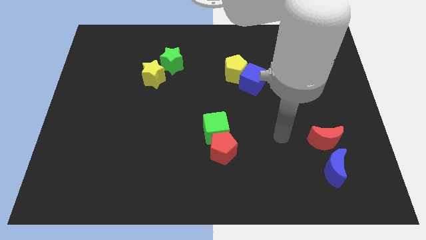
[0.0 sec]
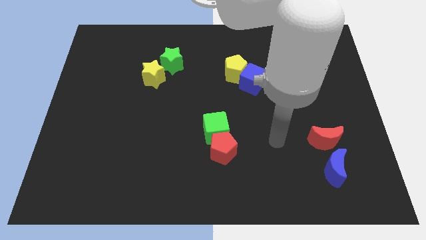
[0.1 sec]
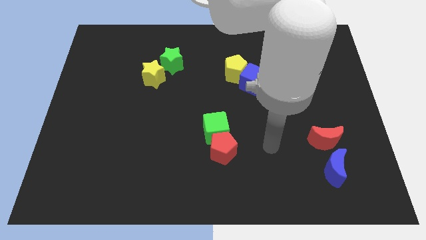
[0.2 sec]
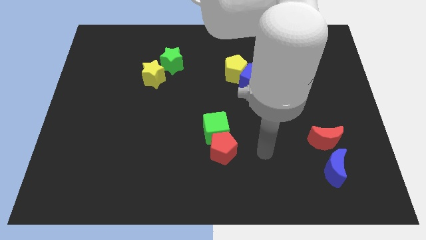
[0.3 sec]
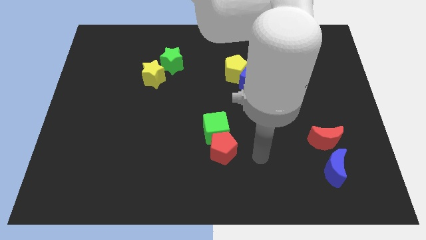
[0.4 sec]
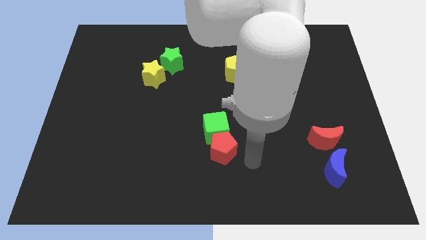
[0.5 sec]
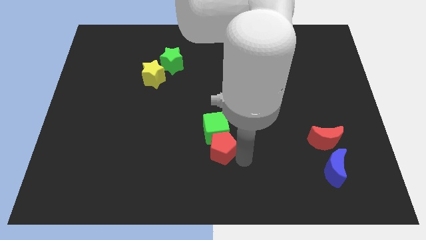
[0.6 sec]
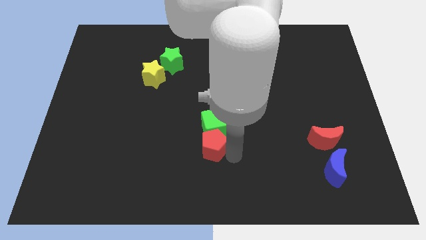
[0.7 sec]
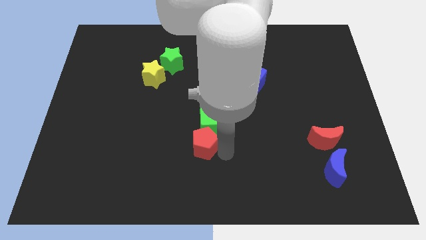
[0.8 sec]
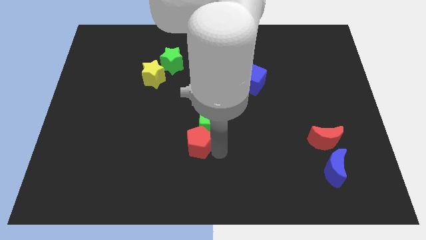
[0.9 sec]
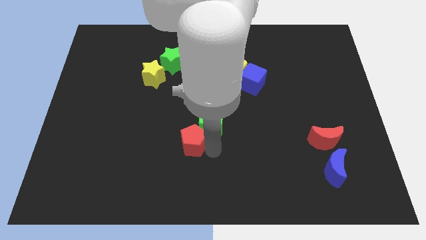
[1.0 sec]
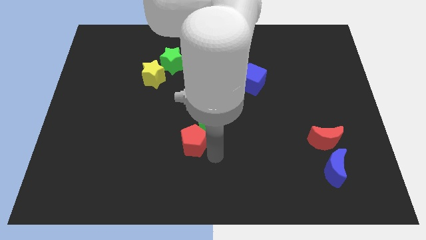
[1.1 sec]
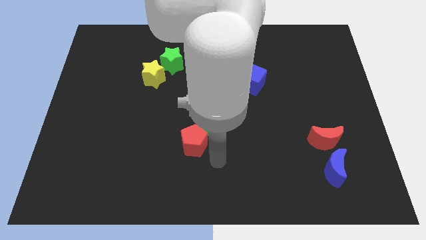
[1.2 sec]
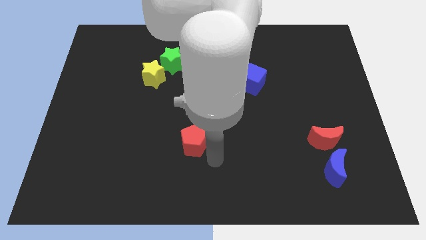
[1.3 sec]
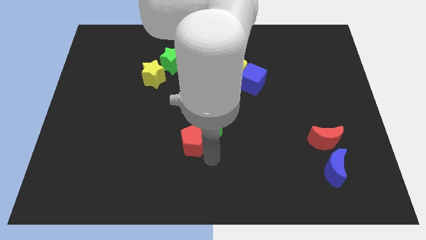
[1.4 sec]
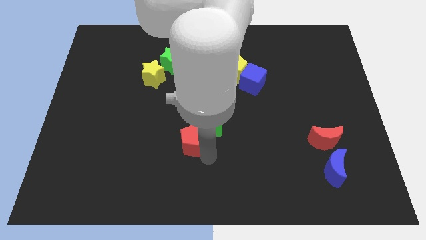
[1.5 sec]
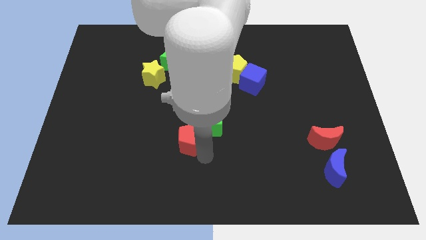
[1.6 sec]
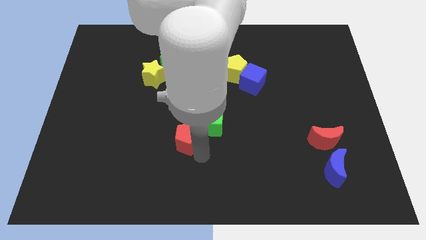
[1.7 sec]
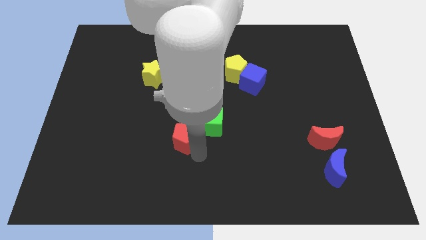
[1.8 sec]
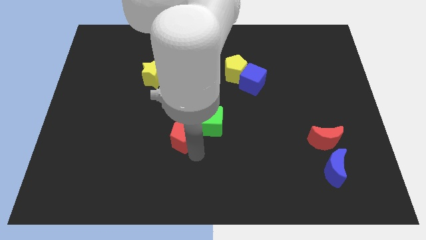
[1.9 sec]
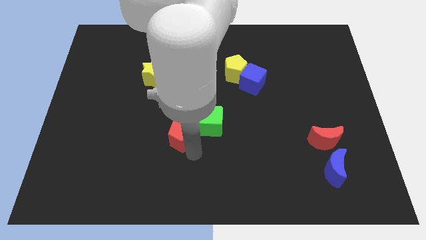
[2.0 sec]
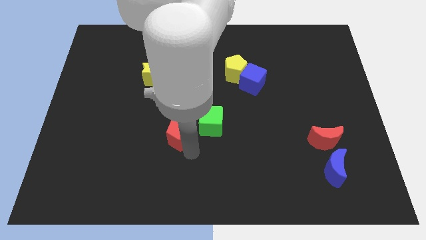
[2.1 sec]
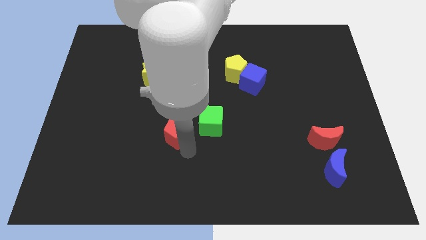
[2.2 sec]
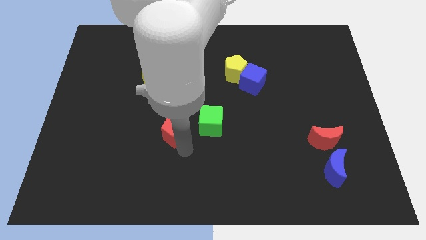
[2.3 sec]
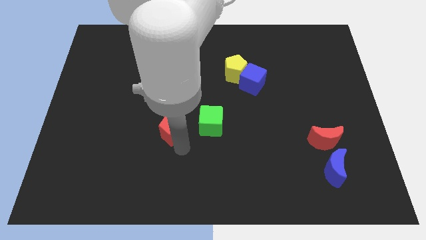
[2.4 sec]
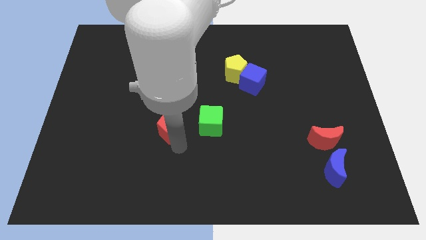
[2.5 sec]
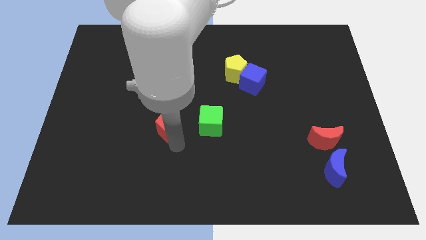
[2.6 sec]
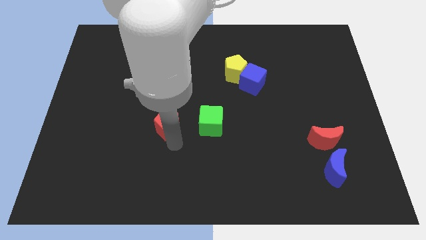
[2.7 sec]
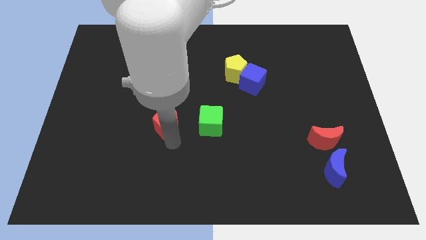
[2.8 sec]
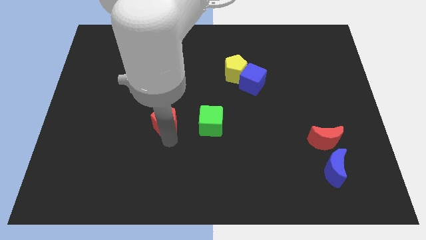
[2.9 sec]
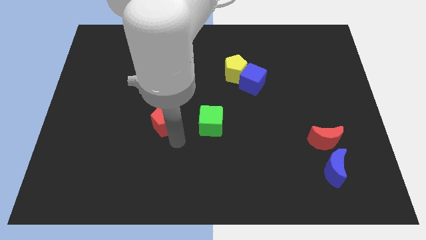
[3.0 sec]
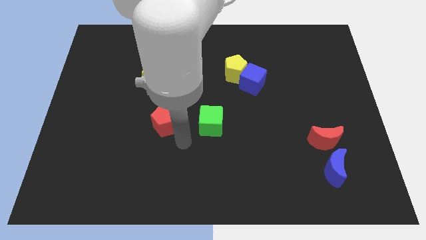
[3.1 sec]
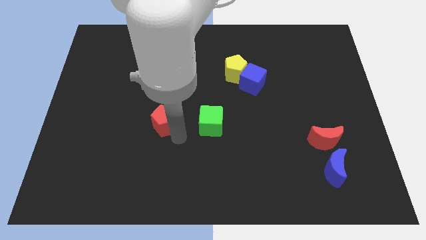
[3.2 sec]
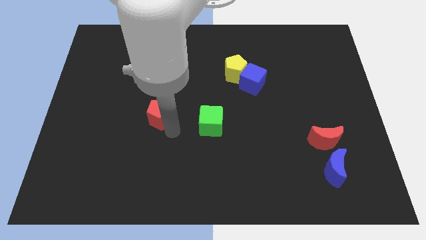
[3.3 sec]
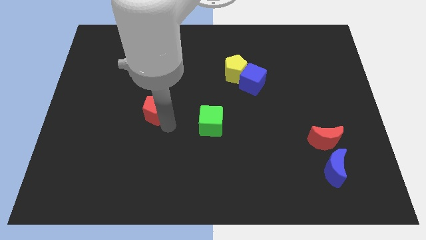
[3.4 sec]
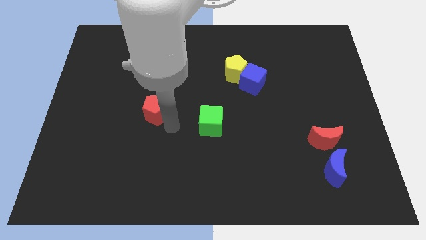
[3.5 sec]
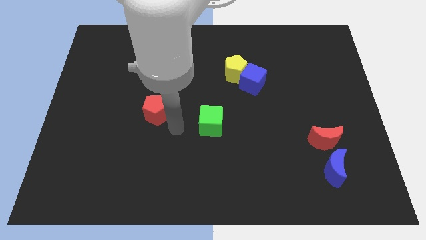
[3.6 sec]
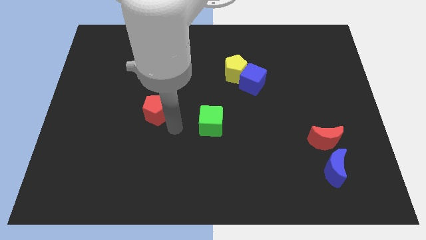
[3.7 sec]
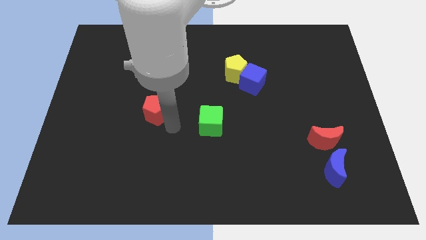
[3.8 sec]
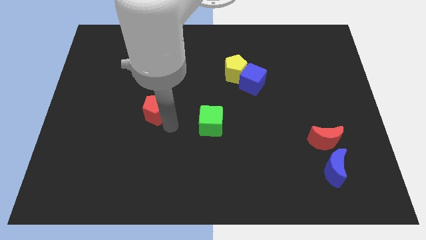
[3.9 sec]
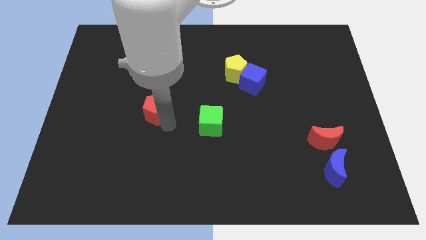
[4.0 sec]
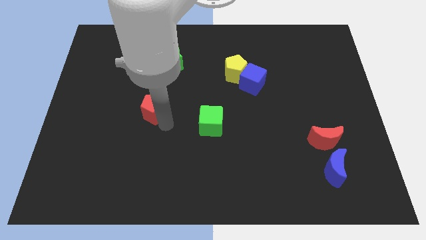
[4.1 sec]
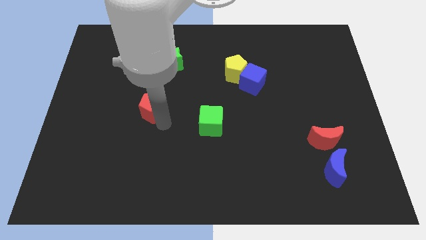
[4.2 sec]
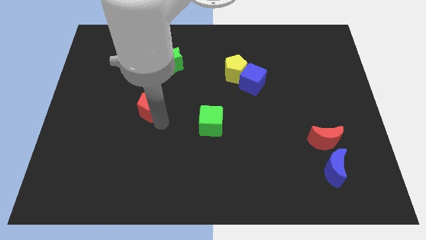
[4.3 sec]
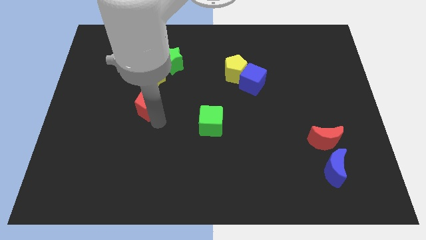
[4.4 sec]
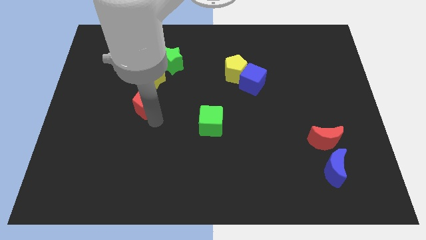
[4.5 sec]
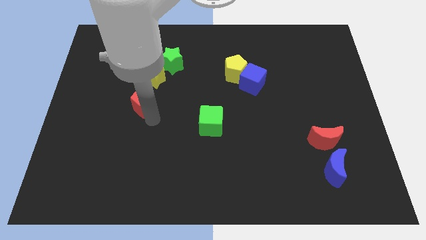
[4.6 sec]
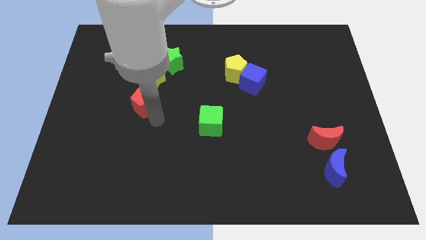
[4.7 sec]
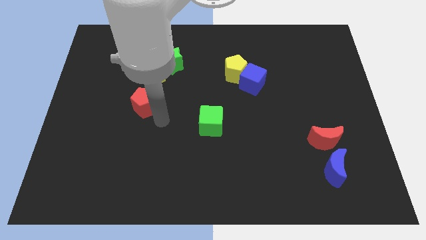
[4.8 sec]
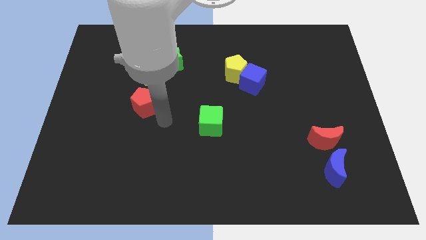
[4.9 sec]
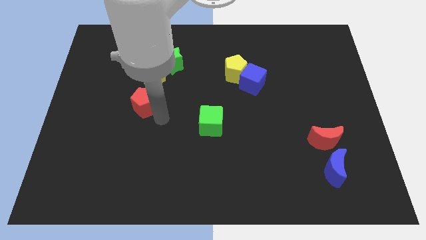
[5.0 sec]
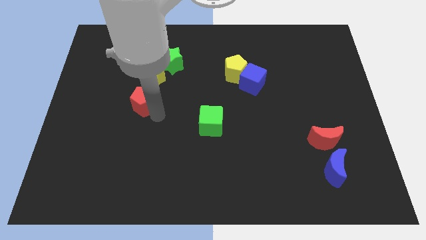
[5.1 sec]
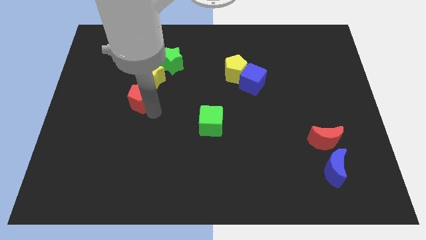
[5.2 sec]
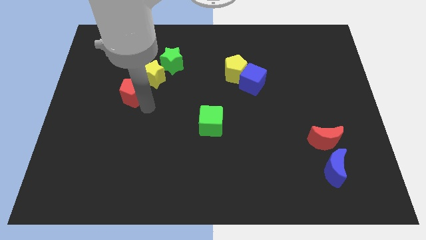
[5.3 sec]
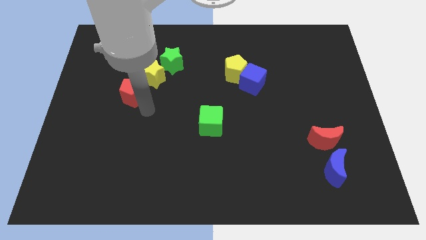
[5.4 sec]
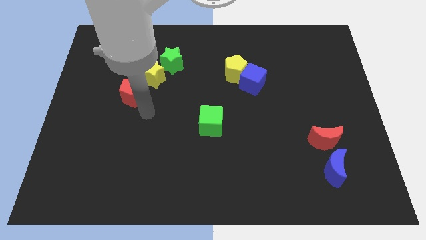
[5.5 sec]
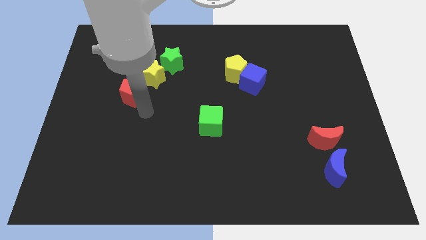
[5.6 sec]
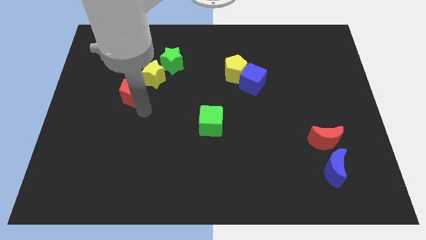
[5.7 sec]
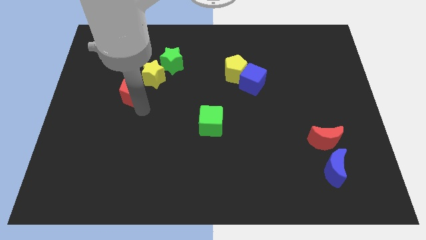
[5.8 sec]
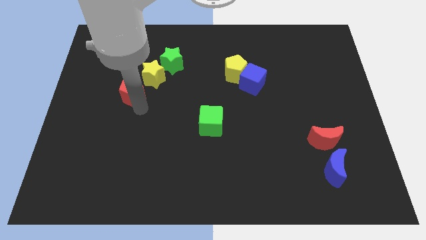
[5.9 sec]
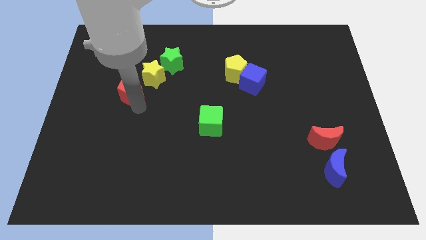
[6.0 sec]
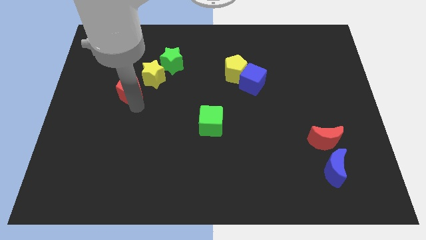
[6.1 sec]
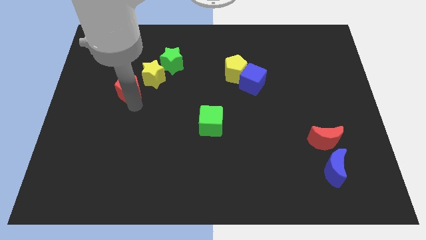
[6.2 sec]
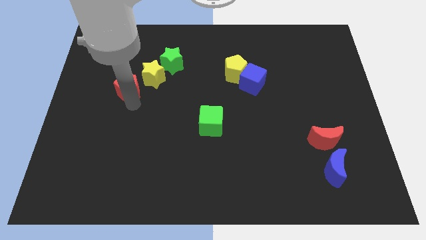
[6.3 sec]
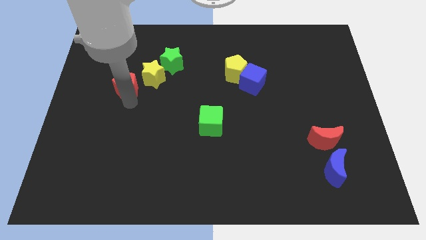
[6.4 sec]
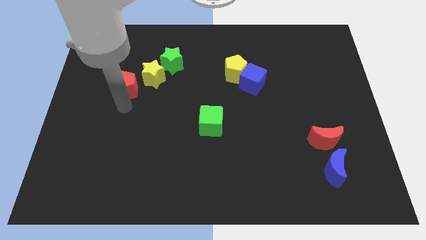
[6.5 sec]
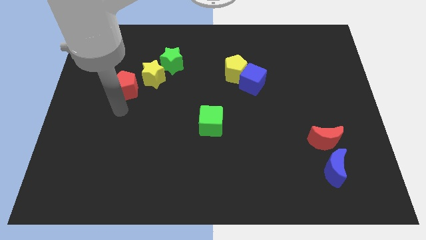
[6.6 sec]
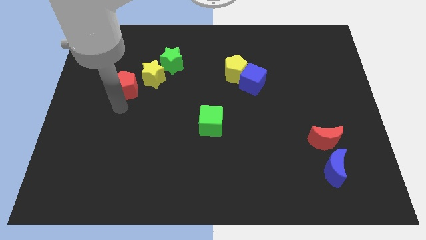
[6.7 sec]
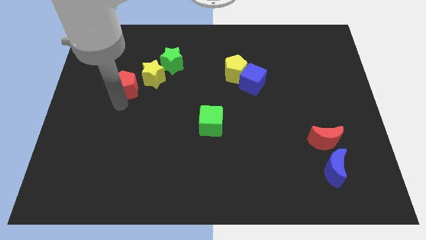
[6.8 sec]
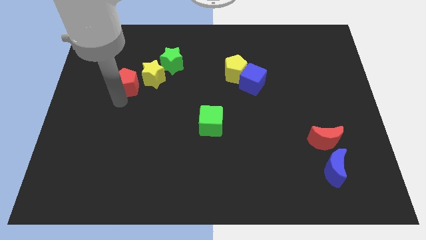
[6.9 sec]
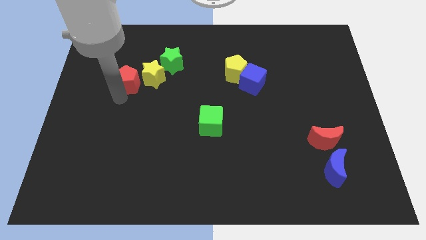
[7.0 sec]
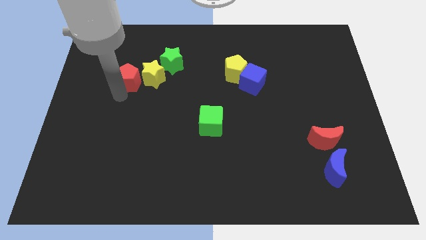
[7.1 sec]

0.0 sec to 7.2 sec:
slide the red pentagon to the top left side of the yellow star
